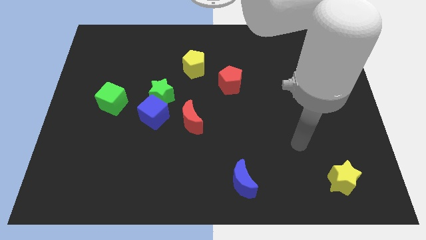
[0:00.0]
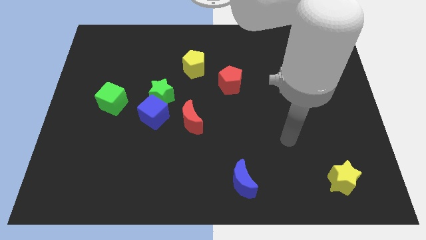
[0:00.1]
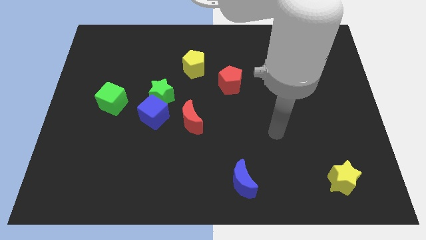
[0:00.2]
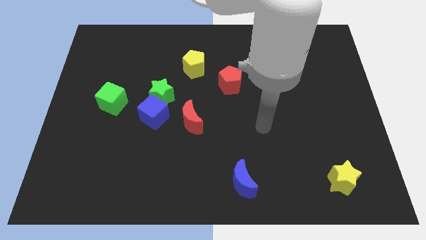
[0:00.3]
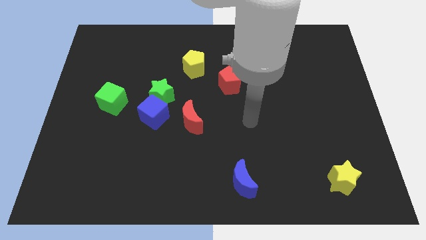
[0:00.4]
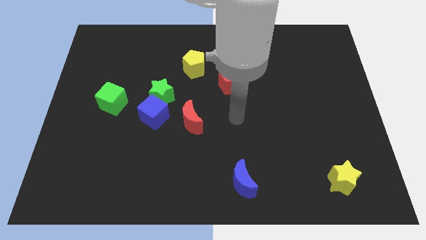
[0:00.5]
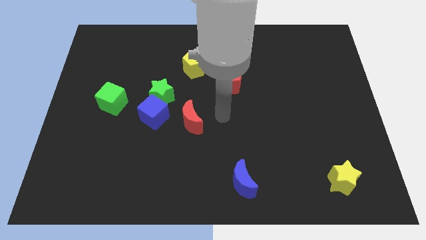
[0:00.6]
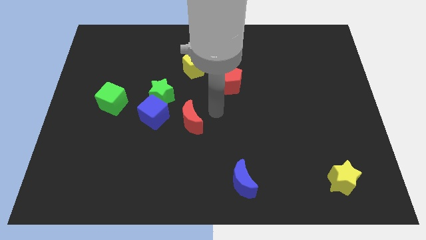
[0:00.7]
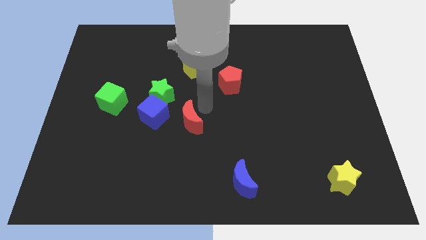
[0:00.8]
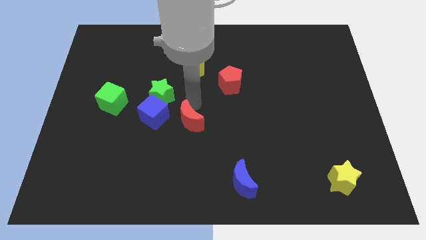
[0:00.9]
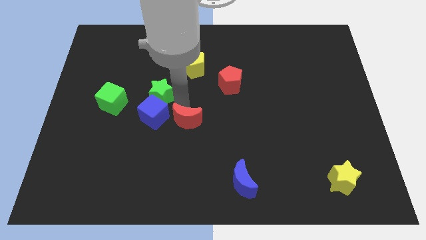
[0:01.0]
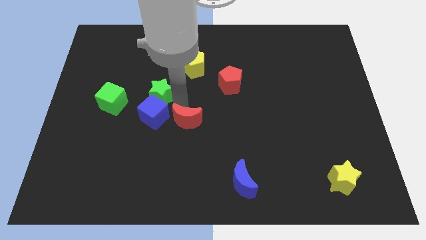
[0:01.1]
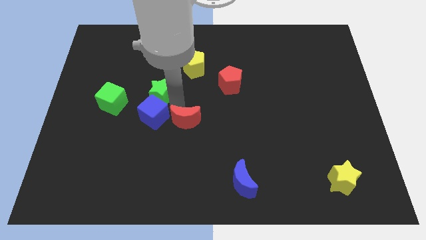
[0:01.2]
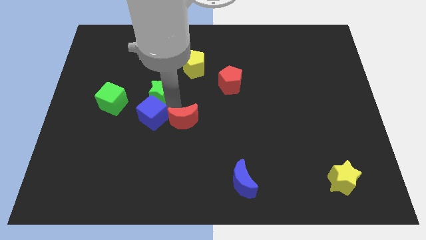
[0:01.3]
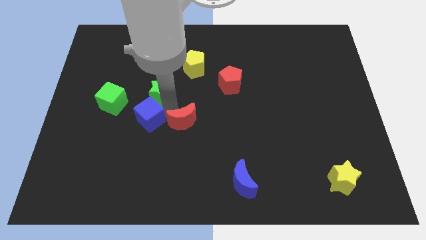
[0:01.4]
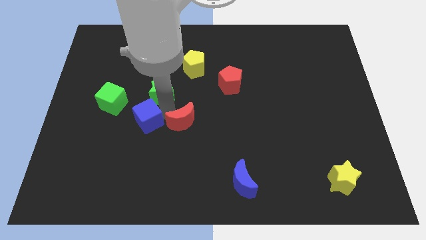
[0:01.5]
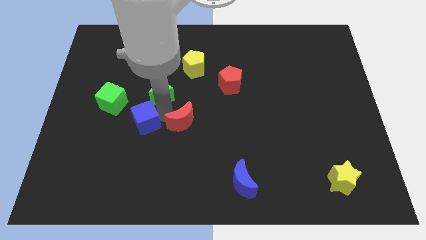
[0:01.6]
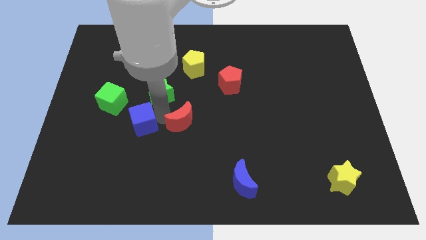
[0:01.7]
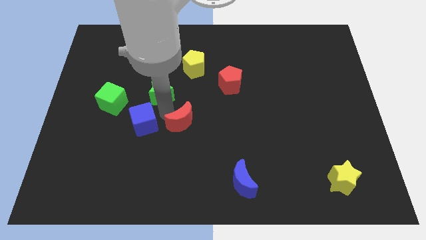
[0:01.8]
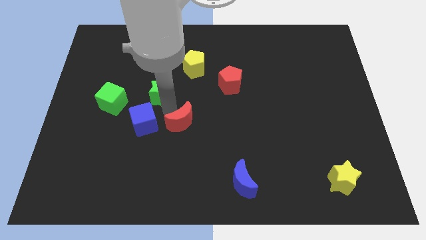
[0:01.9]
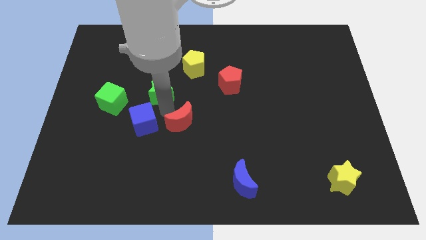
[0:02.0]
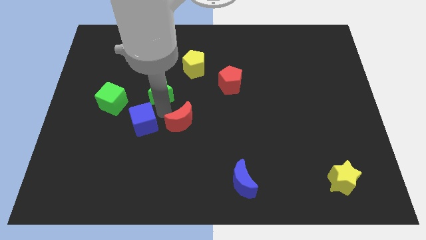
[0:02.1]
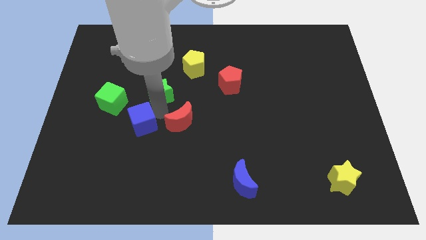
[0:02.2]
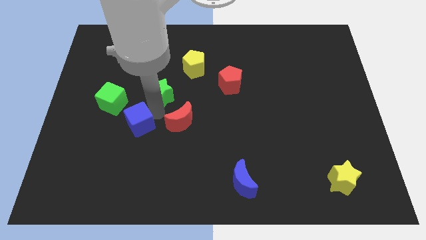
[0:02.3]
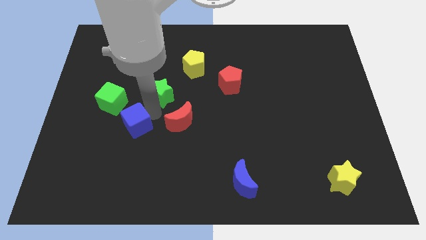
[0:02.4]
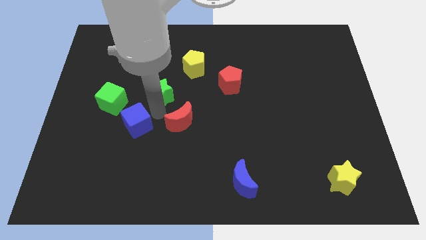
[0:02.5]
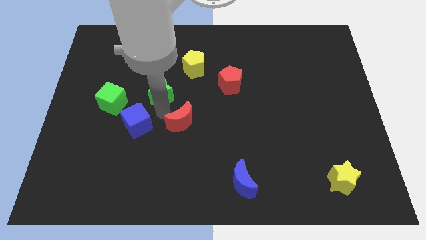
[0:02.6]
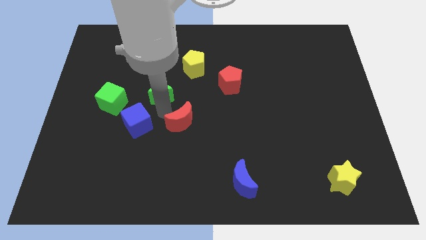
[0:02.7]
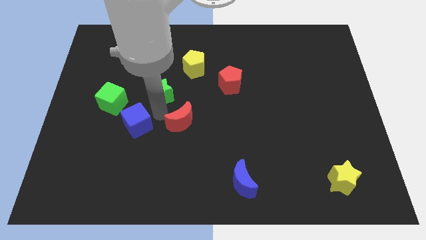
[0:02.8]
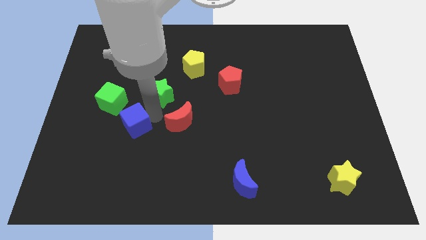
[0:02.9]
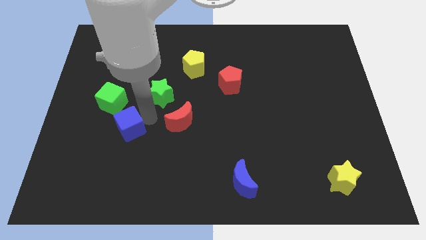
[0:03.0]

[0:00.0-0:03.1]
pull the blue cube apart from the green star and red moon

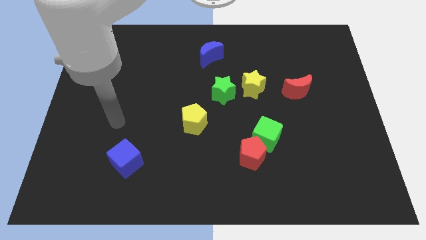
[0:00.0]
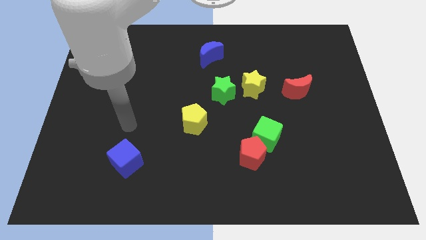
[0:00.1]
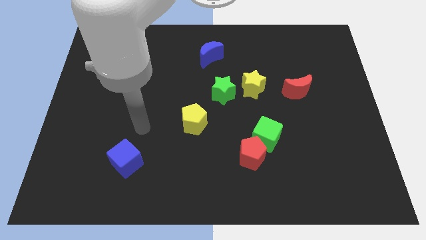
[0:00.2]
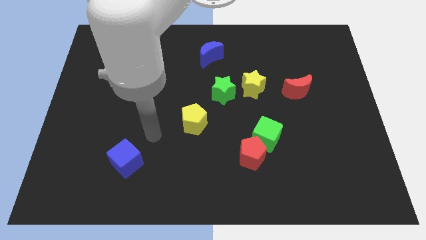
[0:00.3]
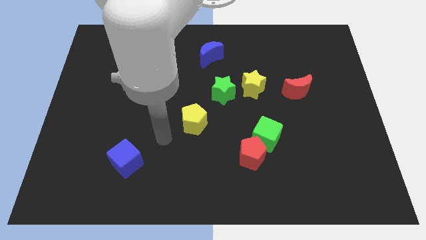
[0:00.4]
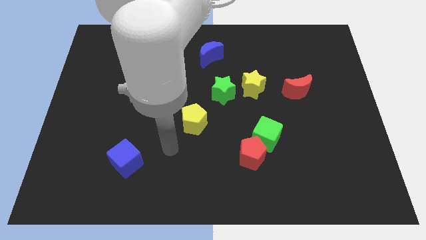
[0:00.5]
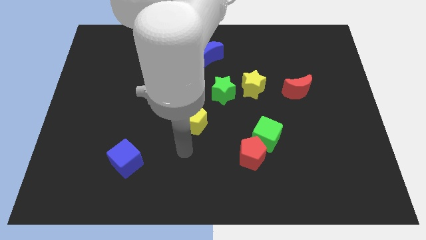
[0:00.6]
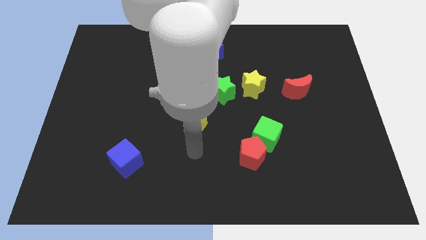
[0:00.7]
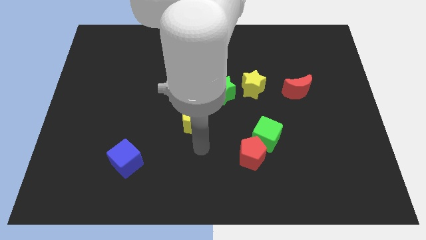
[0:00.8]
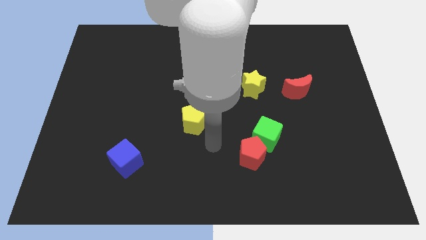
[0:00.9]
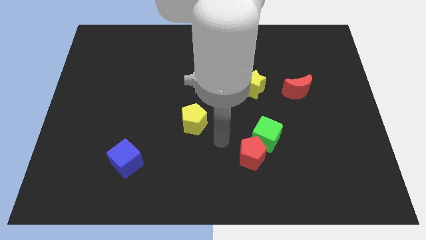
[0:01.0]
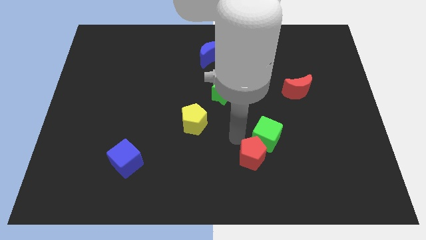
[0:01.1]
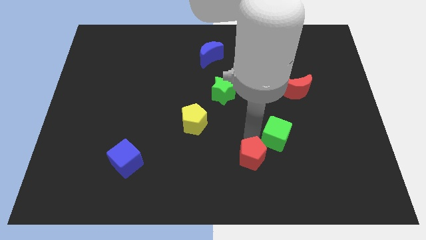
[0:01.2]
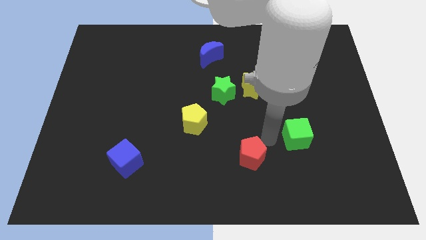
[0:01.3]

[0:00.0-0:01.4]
pull the red pentagon apart from the green cube

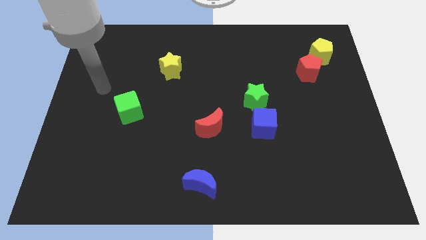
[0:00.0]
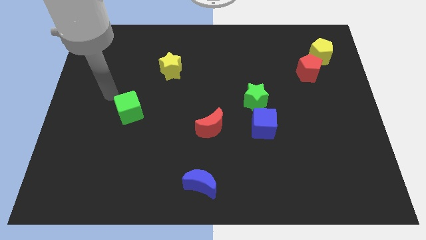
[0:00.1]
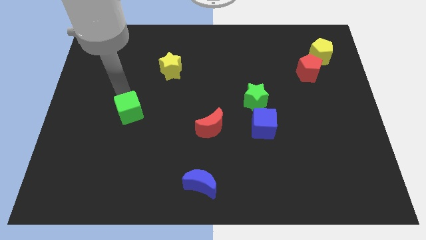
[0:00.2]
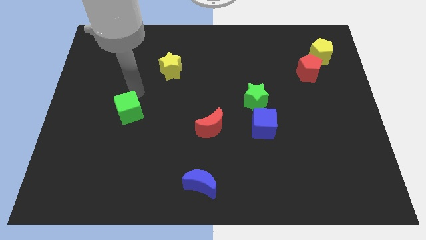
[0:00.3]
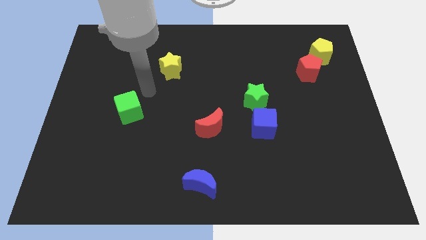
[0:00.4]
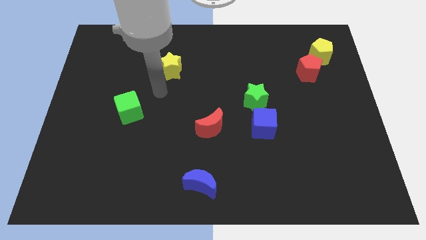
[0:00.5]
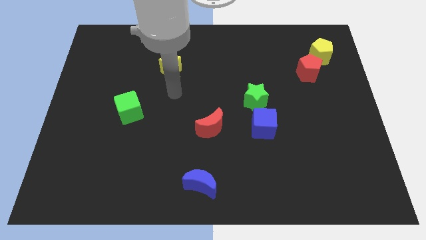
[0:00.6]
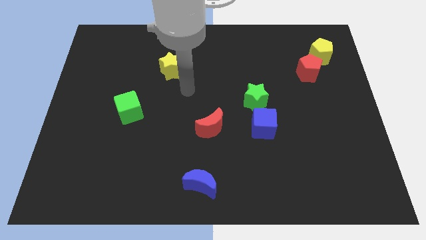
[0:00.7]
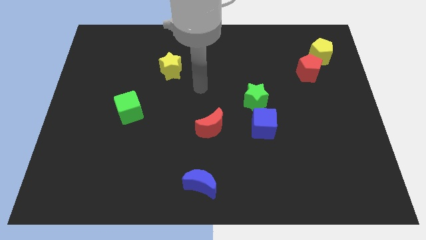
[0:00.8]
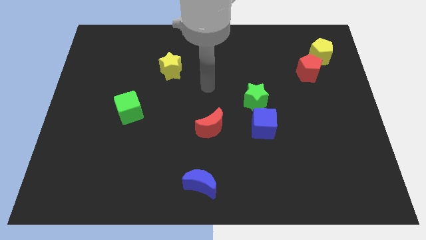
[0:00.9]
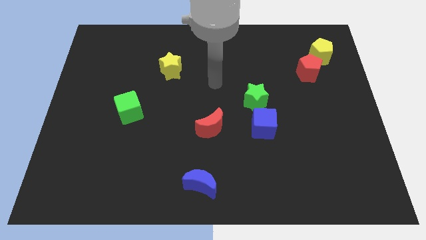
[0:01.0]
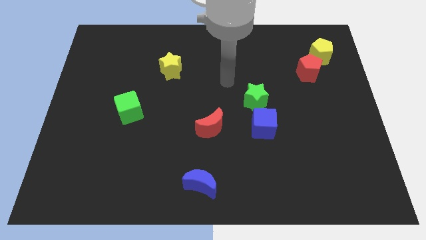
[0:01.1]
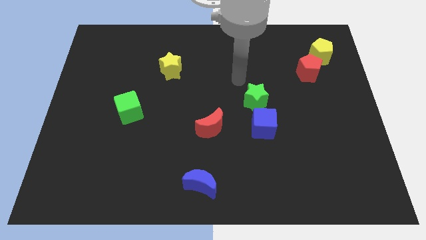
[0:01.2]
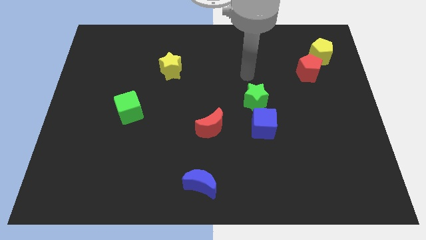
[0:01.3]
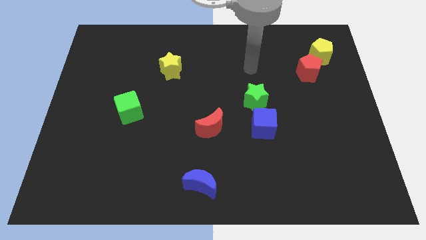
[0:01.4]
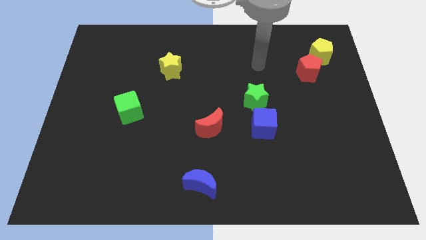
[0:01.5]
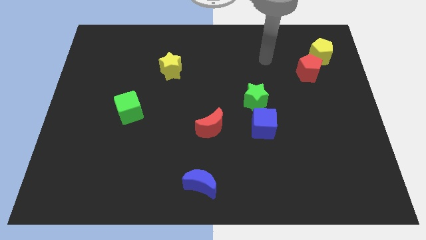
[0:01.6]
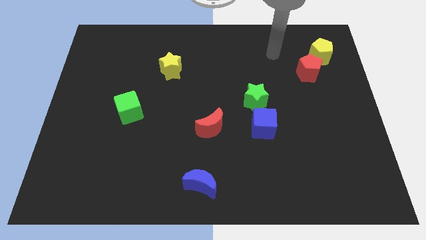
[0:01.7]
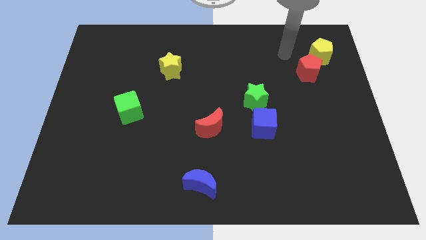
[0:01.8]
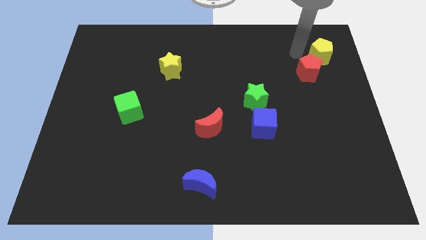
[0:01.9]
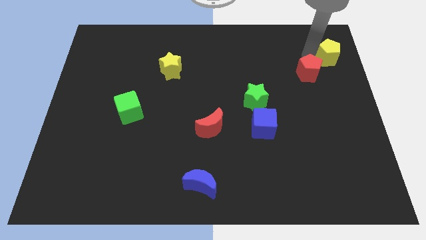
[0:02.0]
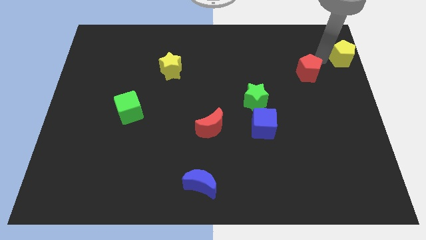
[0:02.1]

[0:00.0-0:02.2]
pull the red pentagon apart from the yellow pentagon

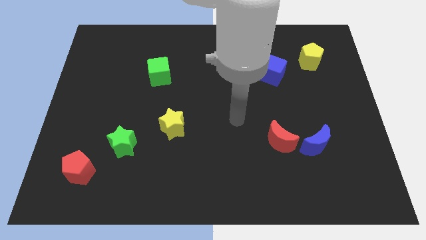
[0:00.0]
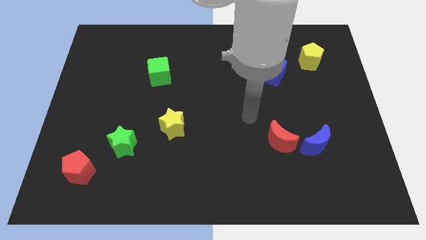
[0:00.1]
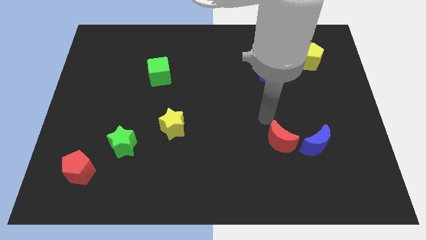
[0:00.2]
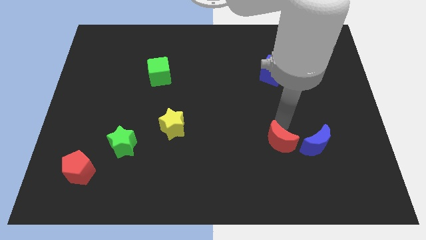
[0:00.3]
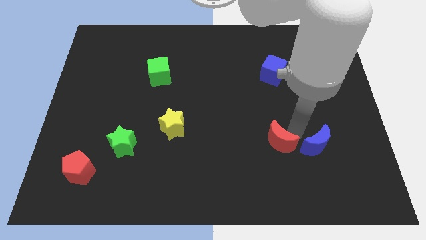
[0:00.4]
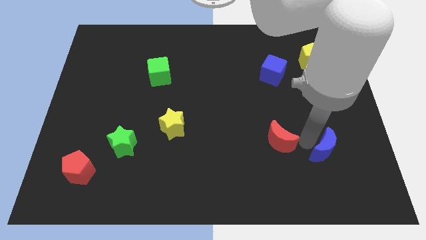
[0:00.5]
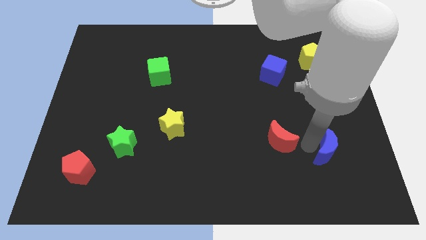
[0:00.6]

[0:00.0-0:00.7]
separate the red moon from the blue moon

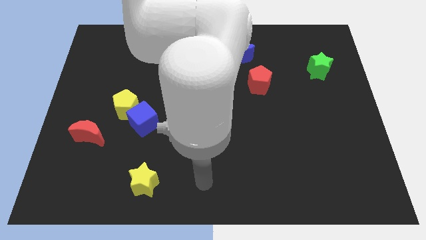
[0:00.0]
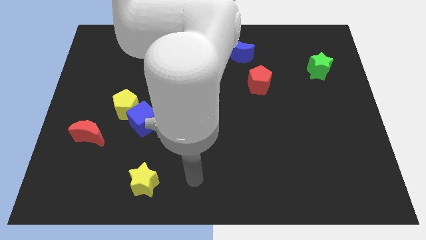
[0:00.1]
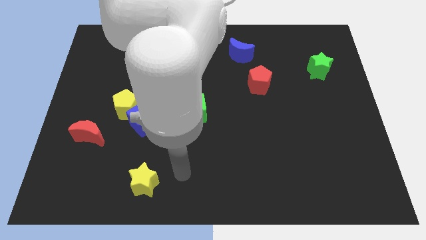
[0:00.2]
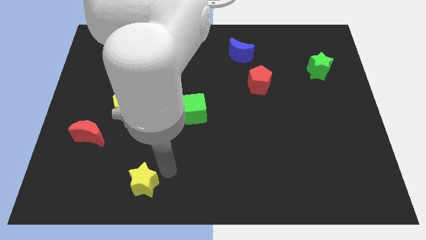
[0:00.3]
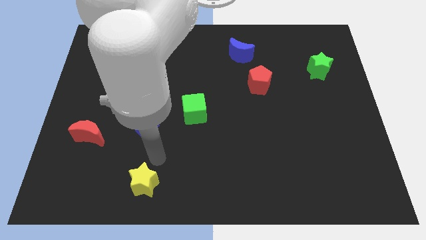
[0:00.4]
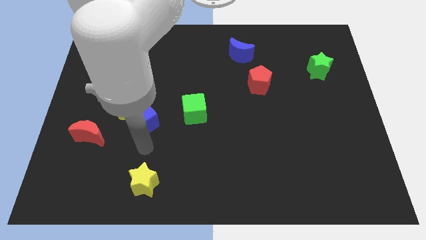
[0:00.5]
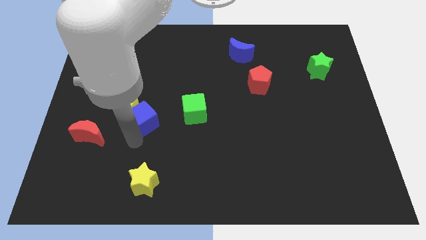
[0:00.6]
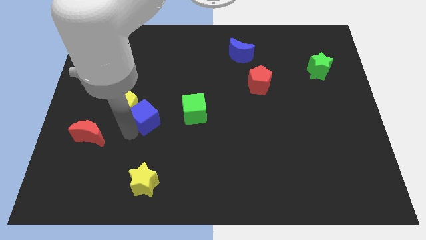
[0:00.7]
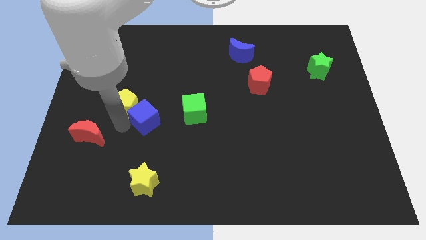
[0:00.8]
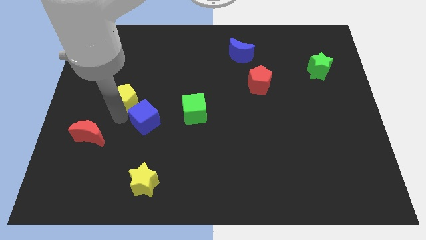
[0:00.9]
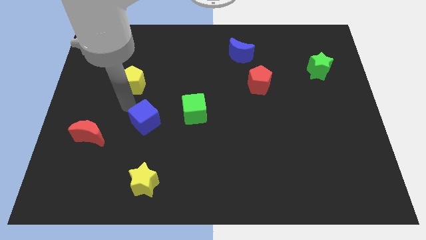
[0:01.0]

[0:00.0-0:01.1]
separate the blue cube from the yellow pentagon

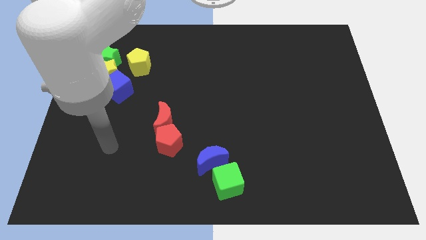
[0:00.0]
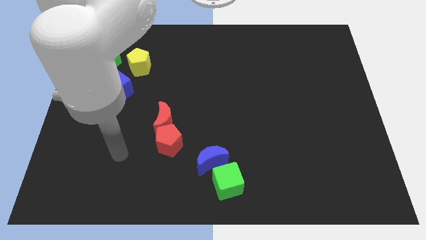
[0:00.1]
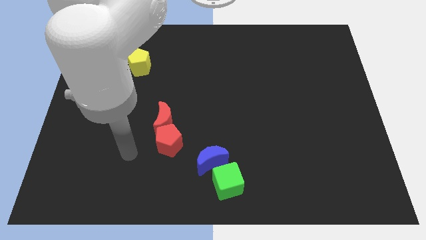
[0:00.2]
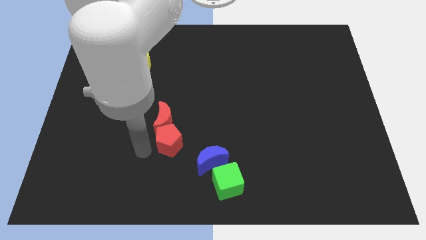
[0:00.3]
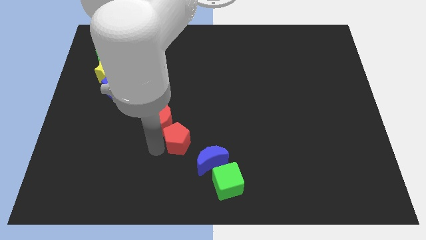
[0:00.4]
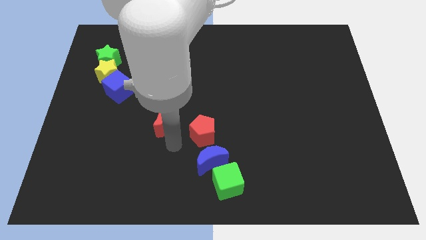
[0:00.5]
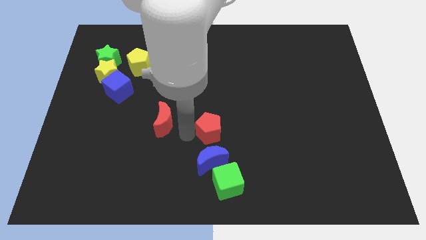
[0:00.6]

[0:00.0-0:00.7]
move the red moon away from the red pentagon
